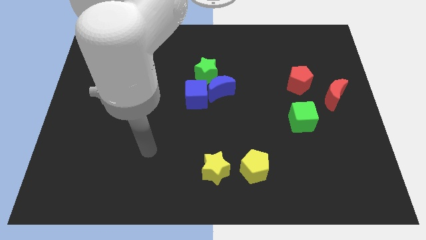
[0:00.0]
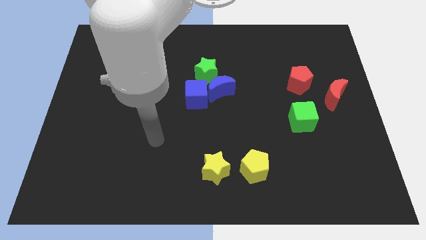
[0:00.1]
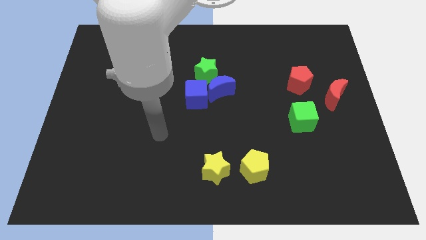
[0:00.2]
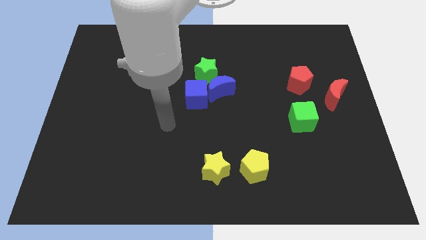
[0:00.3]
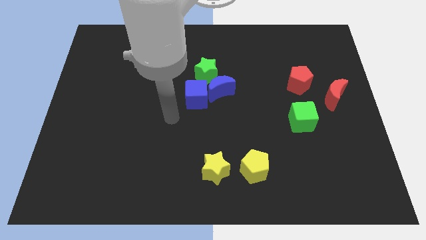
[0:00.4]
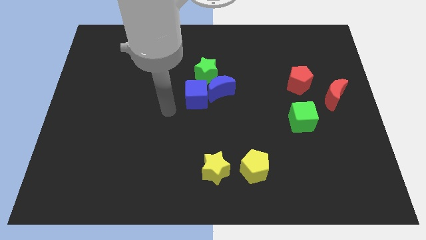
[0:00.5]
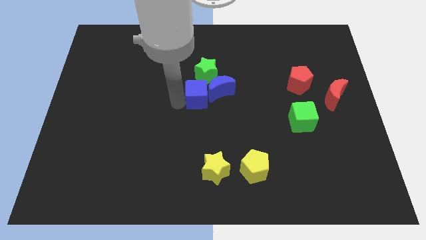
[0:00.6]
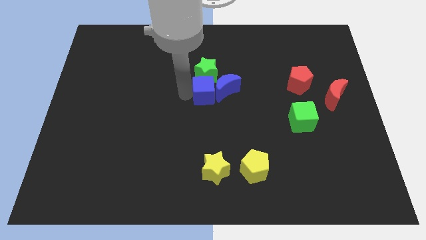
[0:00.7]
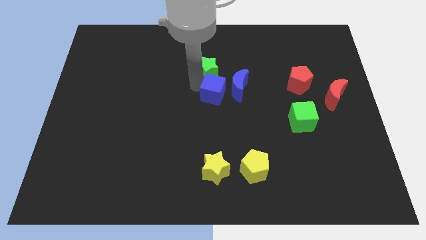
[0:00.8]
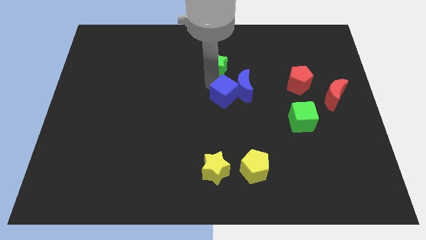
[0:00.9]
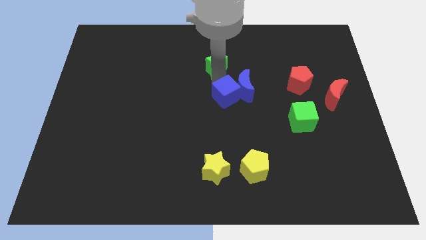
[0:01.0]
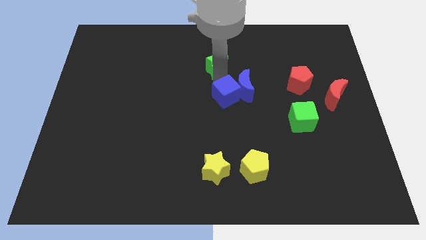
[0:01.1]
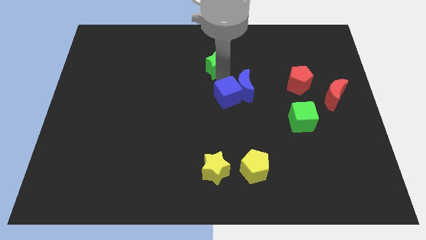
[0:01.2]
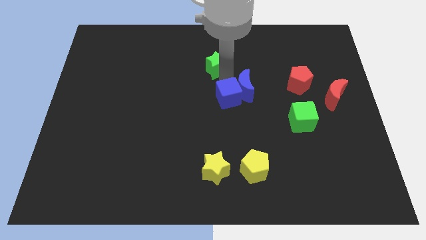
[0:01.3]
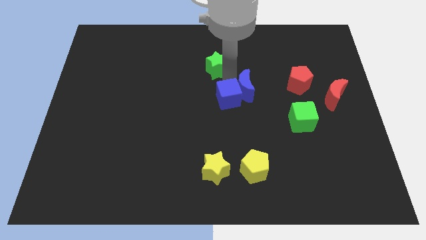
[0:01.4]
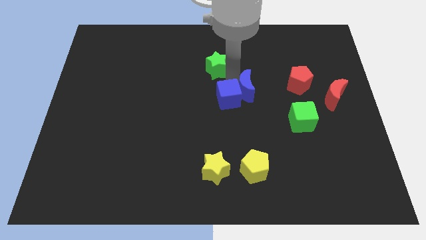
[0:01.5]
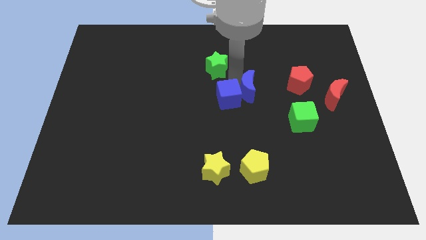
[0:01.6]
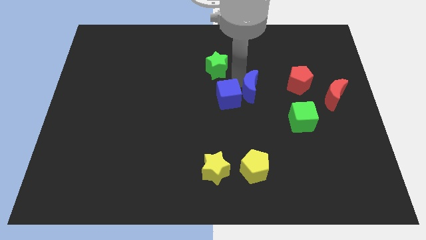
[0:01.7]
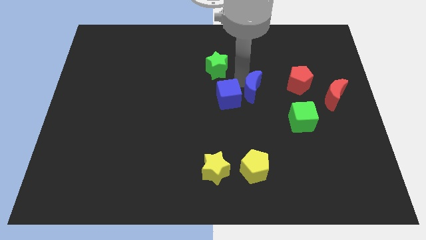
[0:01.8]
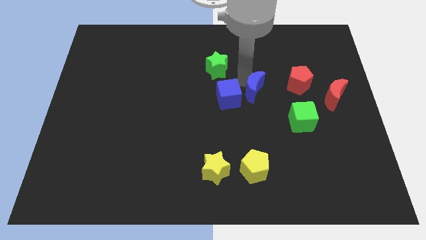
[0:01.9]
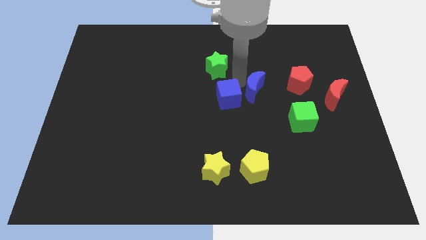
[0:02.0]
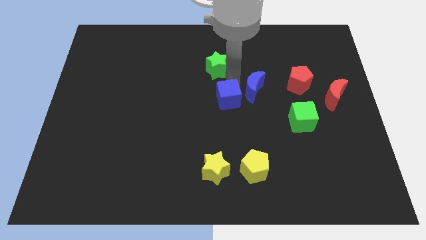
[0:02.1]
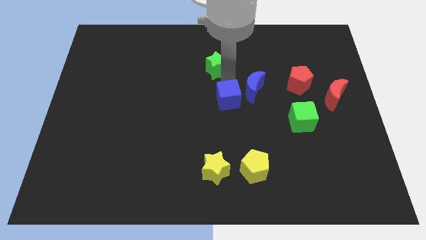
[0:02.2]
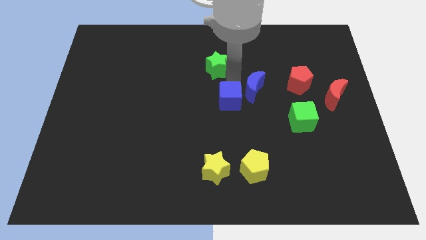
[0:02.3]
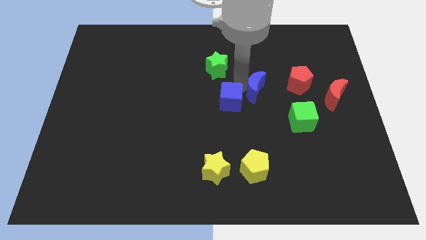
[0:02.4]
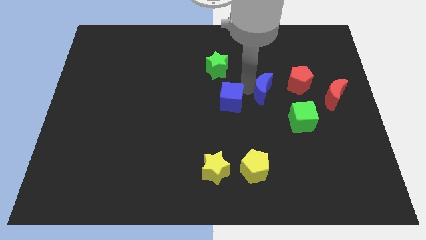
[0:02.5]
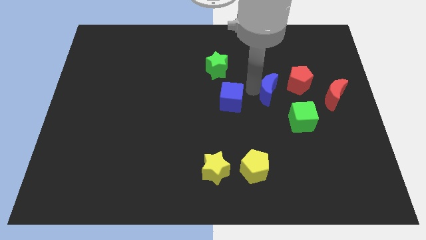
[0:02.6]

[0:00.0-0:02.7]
move the blue moon away from the blue cube and green star

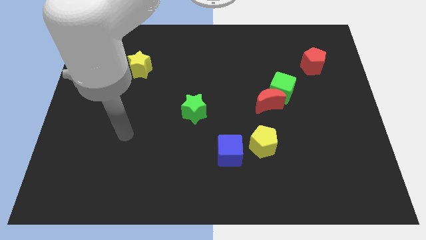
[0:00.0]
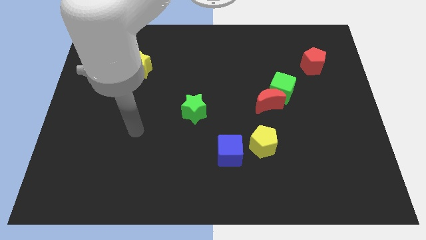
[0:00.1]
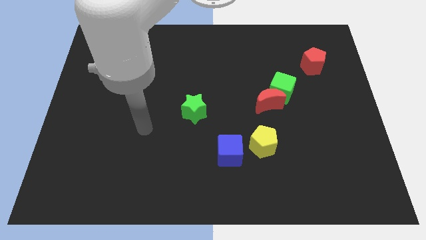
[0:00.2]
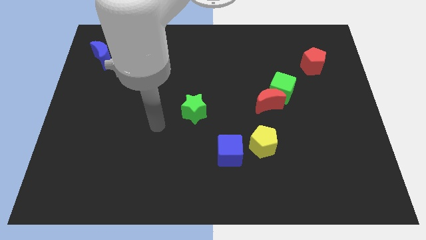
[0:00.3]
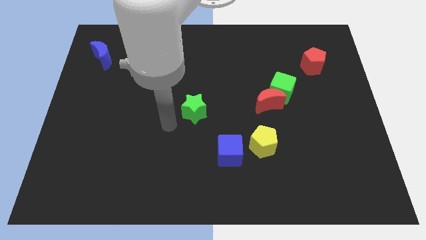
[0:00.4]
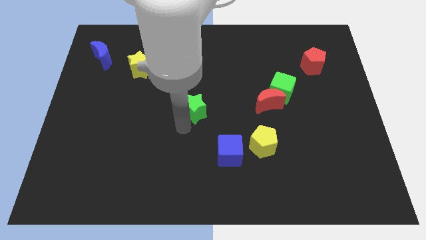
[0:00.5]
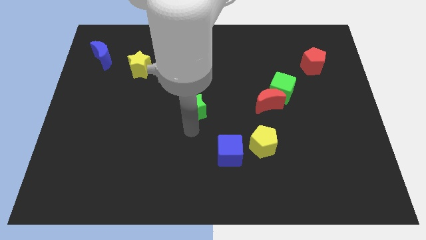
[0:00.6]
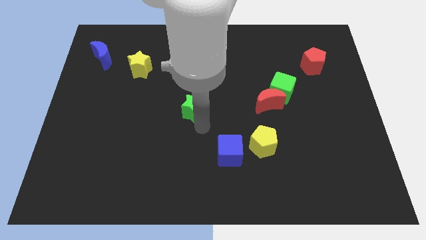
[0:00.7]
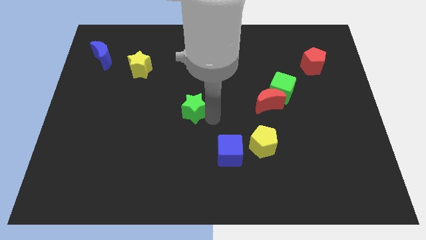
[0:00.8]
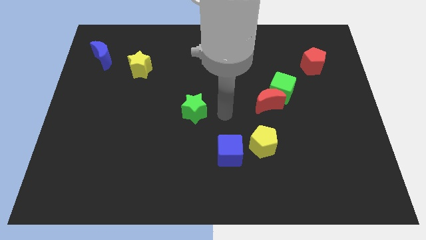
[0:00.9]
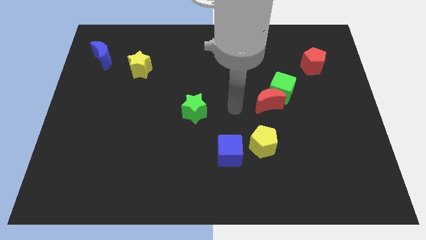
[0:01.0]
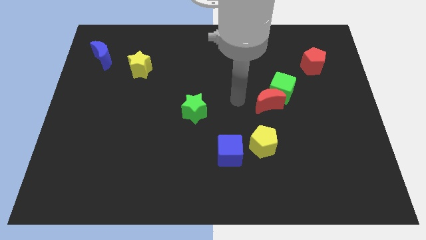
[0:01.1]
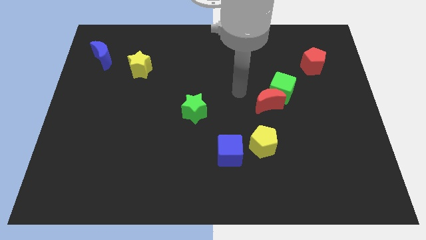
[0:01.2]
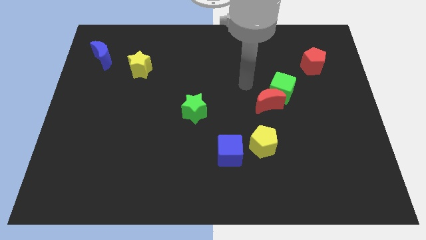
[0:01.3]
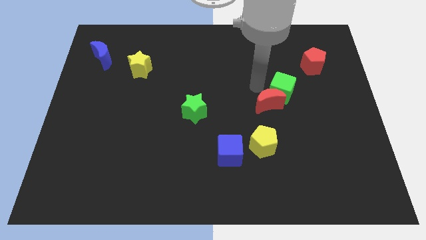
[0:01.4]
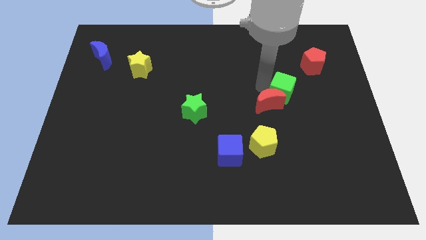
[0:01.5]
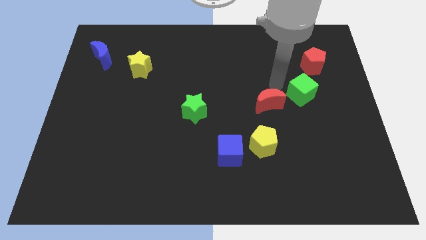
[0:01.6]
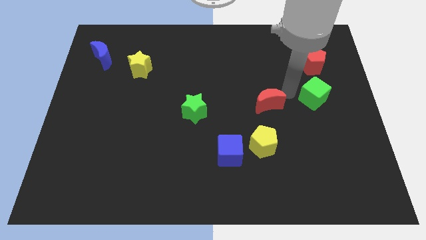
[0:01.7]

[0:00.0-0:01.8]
separate the red moon from the green cube

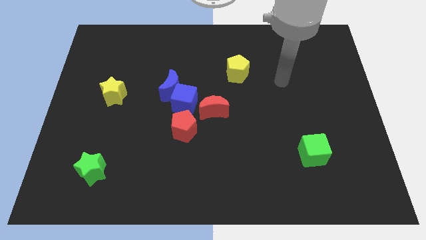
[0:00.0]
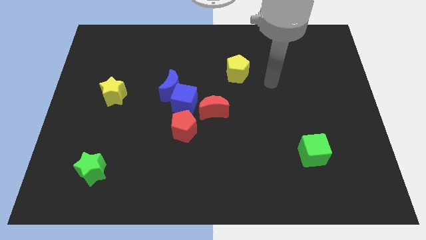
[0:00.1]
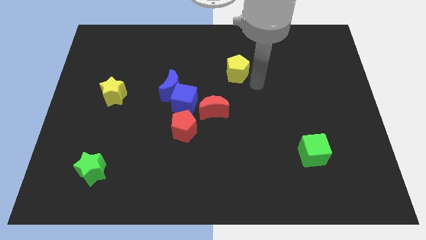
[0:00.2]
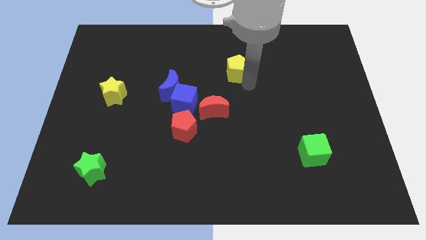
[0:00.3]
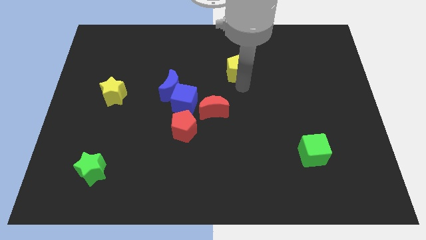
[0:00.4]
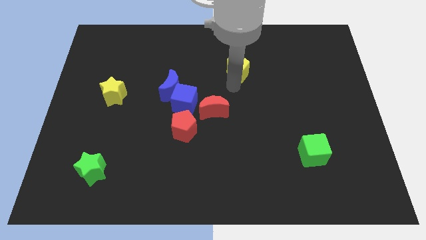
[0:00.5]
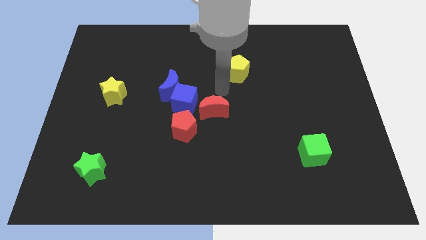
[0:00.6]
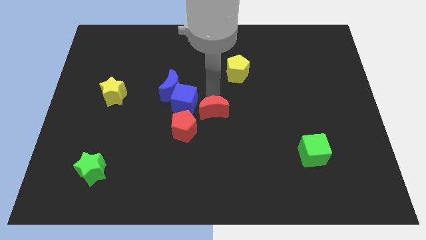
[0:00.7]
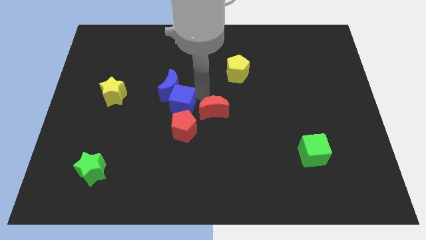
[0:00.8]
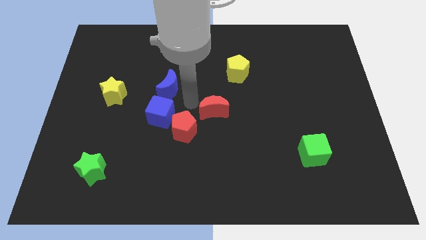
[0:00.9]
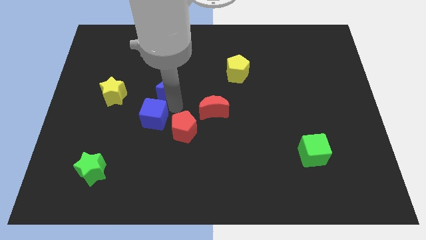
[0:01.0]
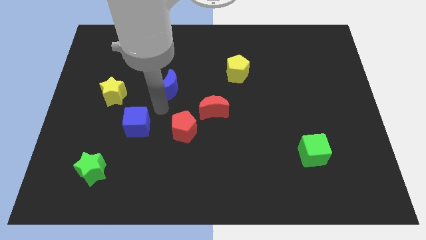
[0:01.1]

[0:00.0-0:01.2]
pull the blue moon apart from the blue cube

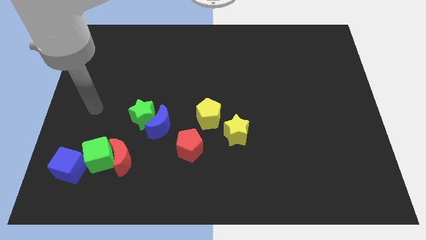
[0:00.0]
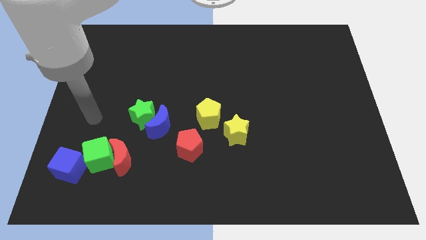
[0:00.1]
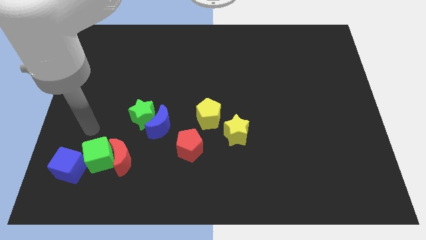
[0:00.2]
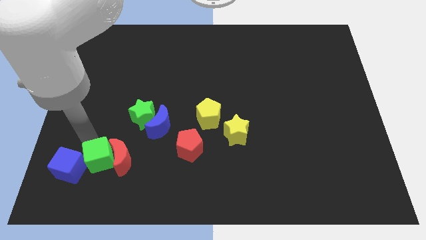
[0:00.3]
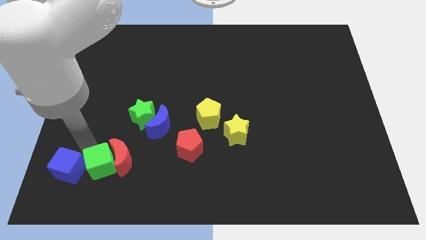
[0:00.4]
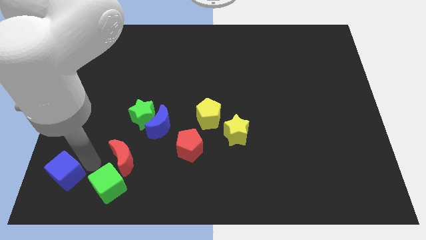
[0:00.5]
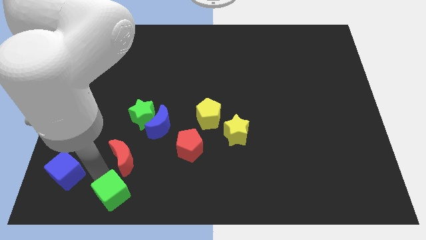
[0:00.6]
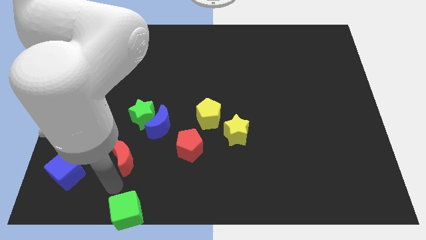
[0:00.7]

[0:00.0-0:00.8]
move the red moon away from the green cube

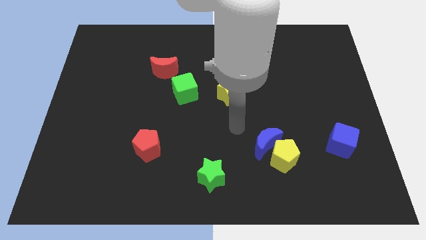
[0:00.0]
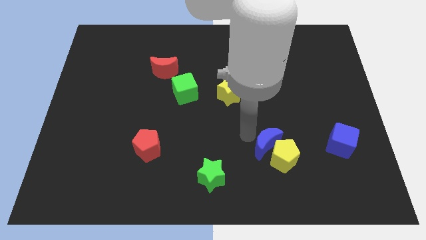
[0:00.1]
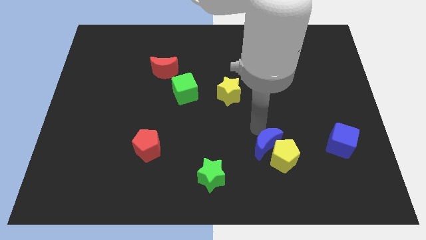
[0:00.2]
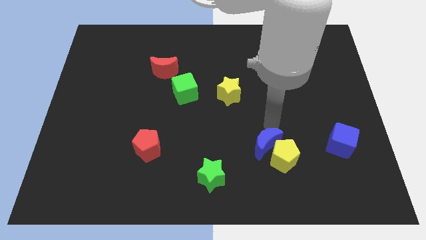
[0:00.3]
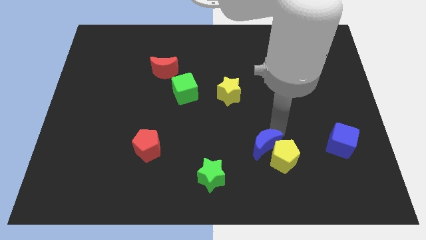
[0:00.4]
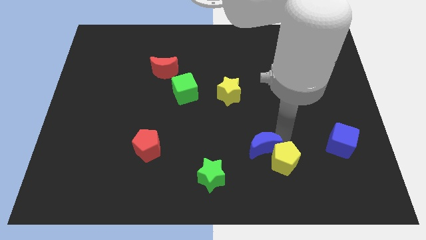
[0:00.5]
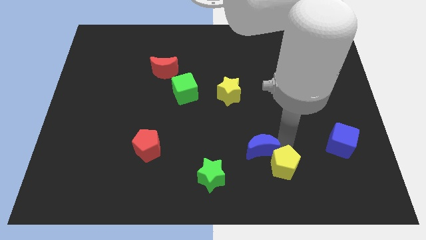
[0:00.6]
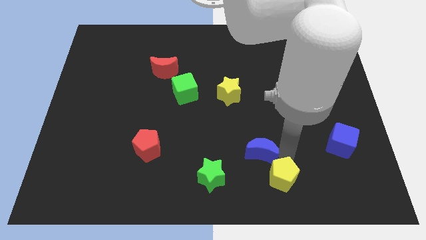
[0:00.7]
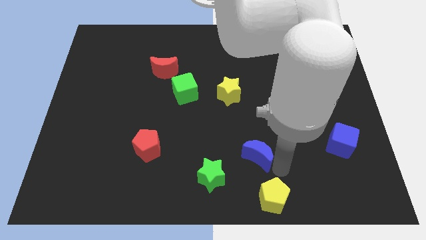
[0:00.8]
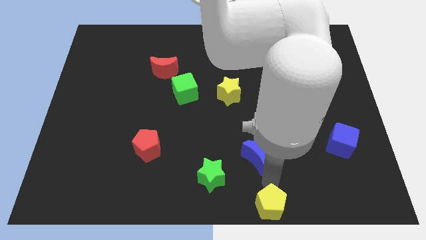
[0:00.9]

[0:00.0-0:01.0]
separate the blue moon from the yellow pentagon

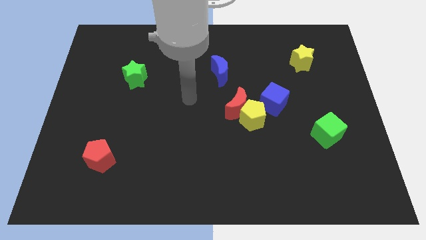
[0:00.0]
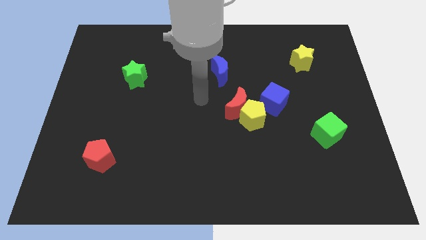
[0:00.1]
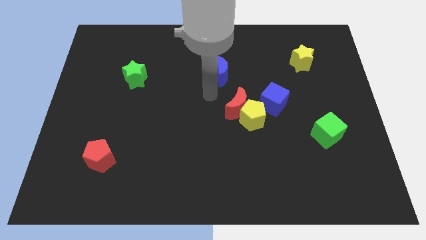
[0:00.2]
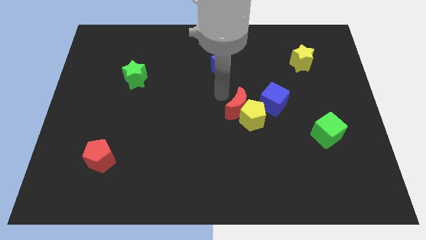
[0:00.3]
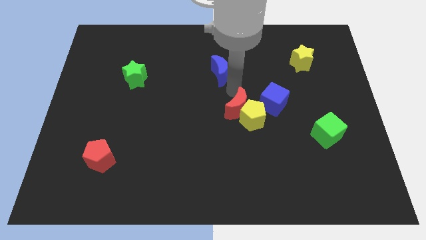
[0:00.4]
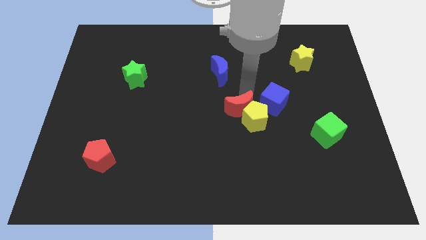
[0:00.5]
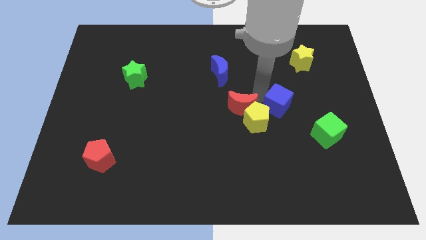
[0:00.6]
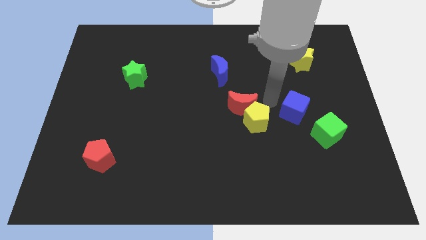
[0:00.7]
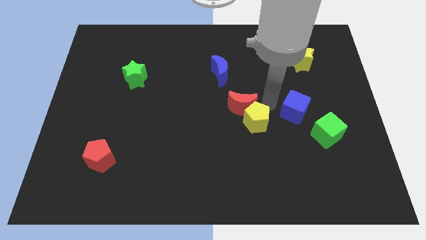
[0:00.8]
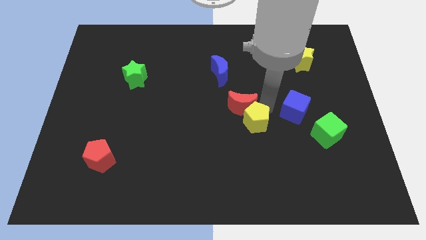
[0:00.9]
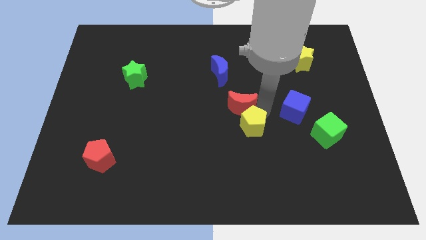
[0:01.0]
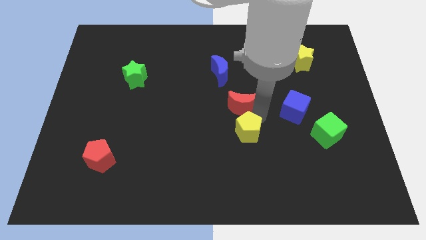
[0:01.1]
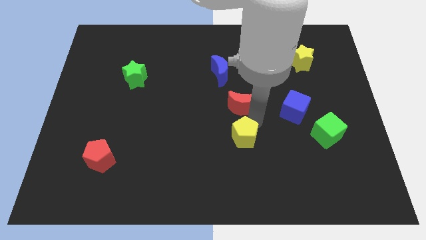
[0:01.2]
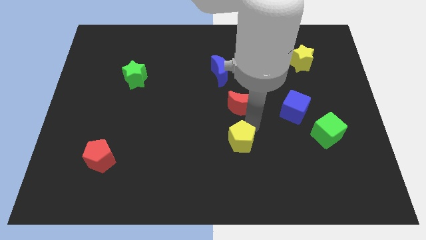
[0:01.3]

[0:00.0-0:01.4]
pull the yellow pentagon apart from the red moon and blue cube

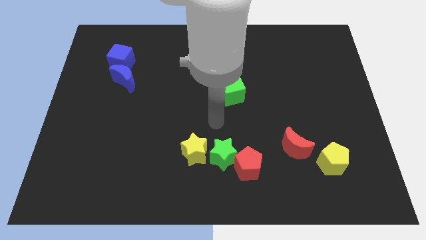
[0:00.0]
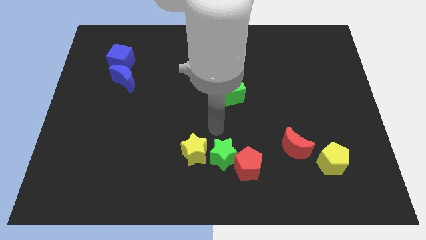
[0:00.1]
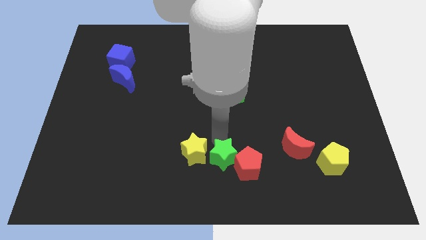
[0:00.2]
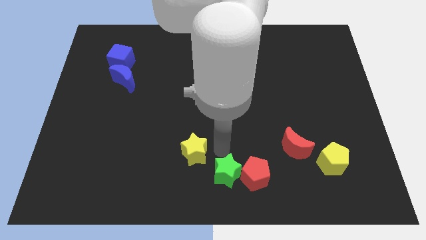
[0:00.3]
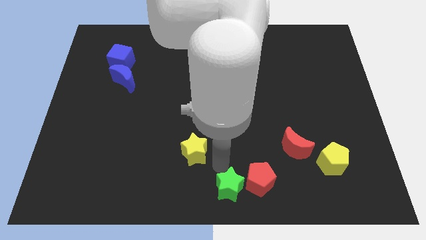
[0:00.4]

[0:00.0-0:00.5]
move the yellow star away from the green star
